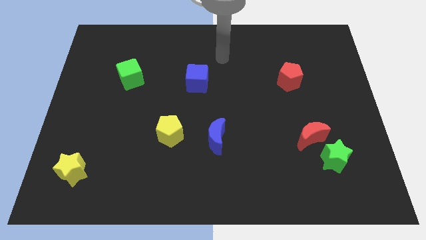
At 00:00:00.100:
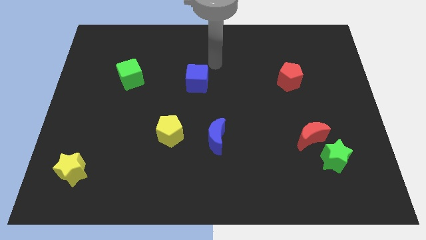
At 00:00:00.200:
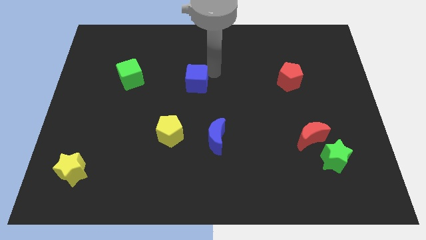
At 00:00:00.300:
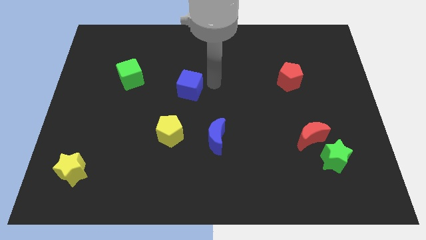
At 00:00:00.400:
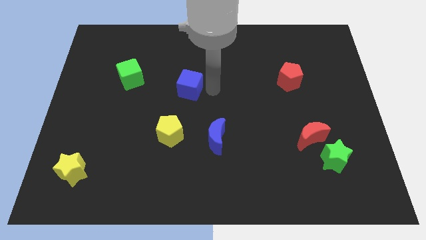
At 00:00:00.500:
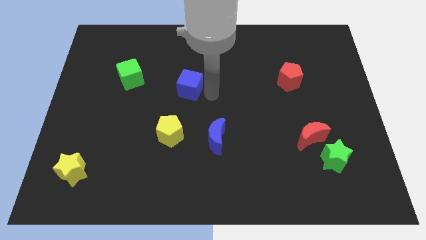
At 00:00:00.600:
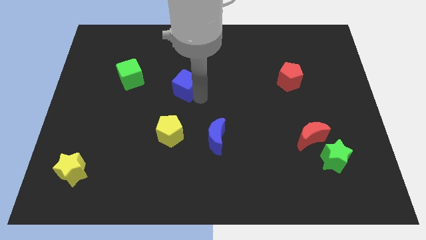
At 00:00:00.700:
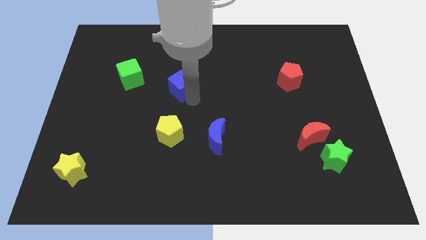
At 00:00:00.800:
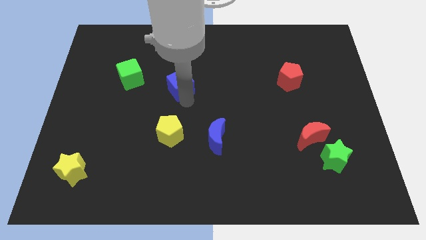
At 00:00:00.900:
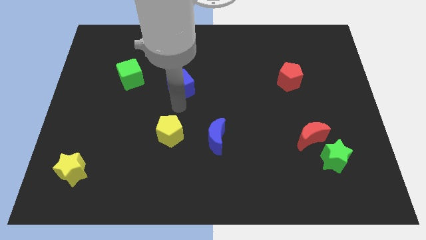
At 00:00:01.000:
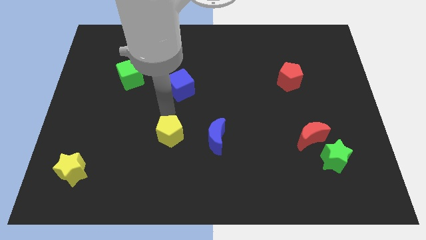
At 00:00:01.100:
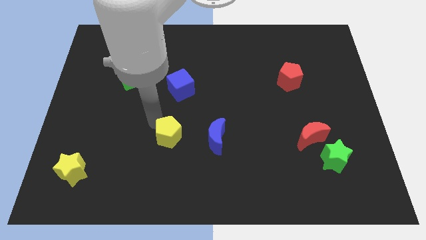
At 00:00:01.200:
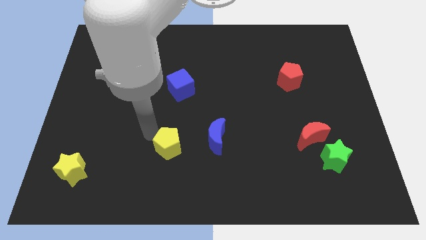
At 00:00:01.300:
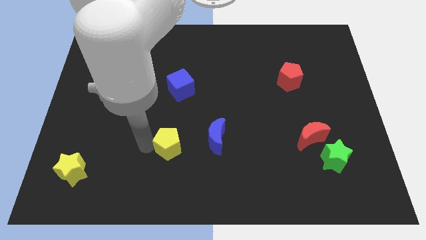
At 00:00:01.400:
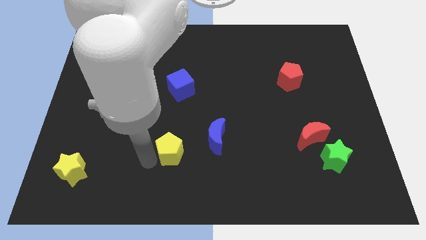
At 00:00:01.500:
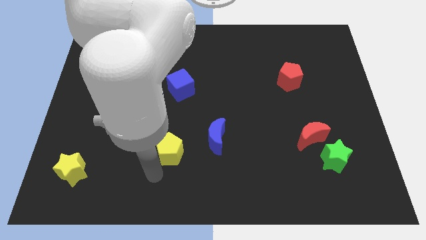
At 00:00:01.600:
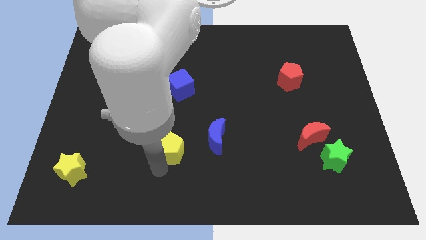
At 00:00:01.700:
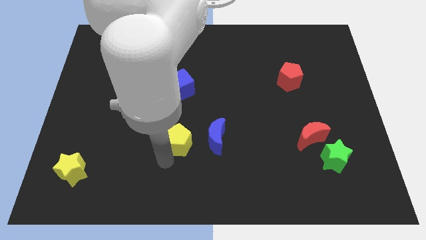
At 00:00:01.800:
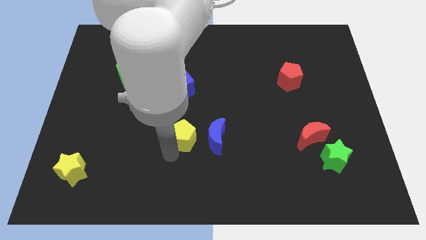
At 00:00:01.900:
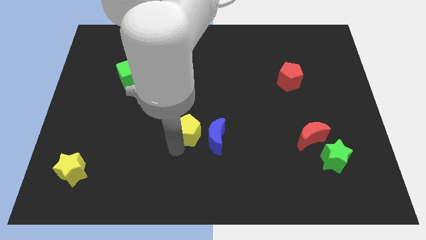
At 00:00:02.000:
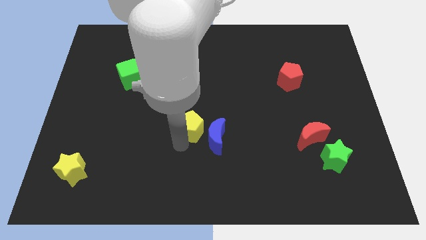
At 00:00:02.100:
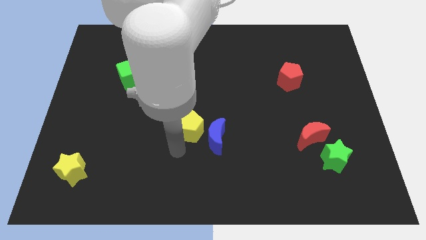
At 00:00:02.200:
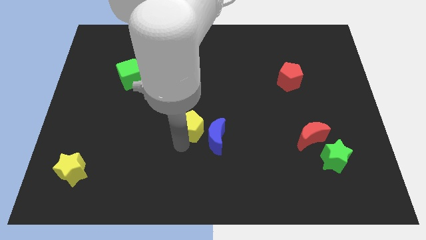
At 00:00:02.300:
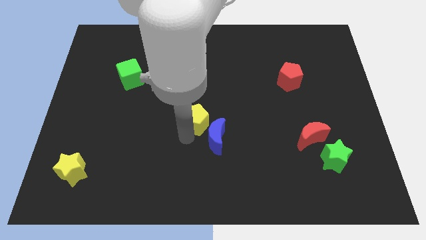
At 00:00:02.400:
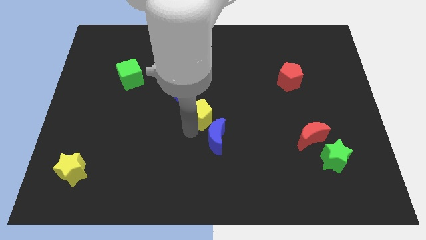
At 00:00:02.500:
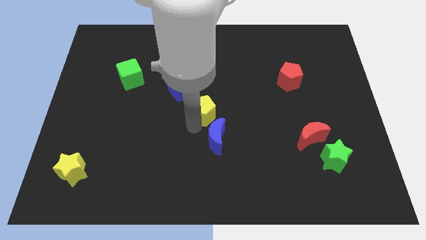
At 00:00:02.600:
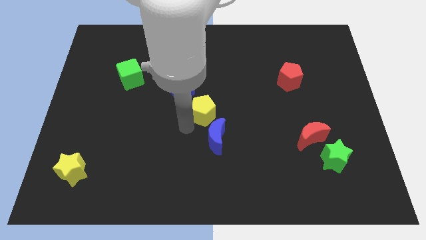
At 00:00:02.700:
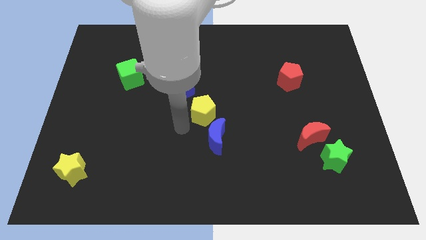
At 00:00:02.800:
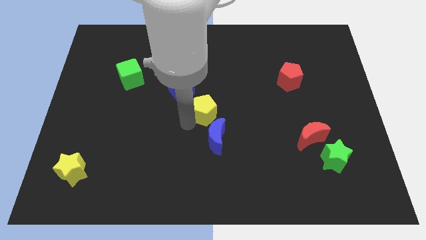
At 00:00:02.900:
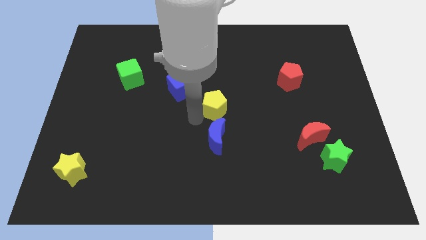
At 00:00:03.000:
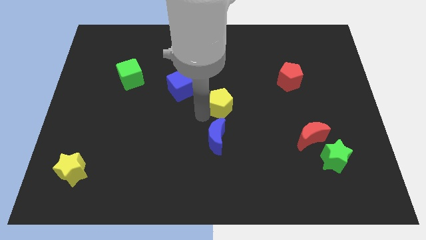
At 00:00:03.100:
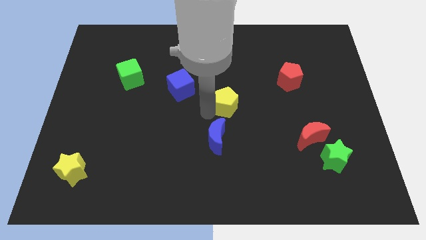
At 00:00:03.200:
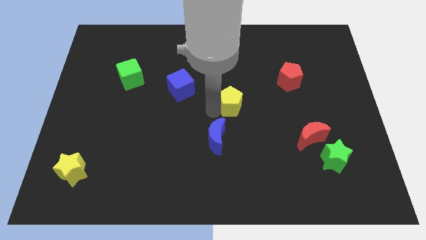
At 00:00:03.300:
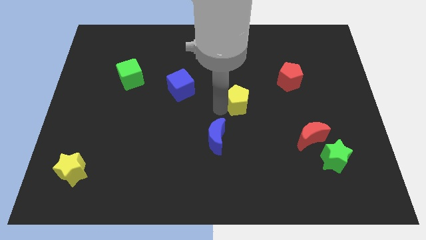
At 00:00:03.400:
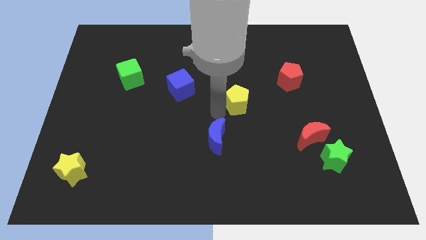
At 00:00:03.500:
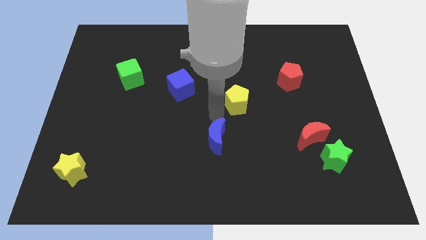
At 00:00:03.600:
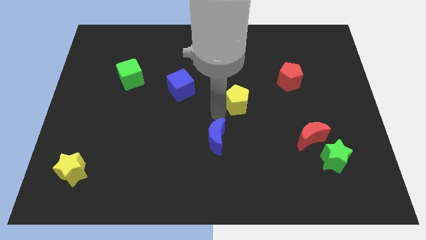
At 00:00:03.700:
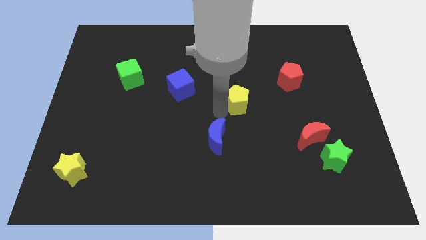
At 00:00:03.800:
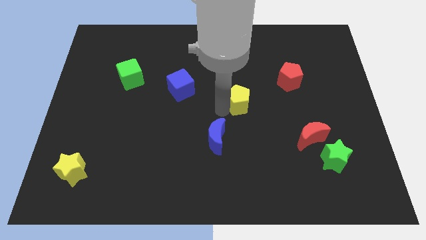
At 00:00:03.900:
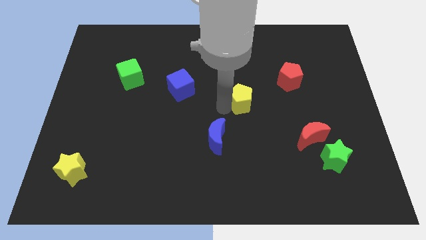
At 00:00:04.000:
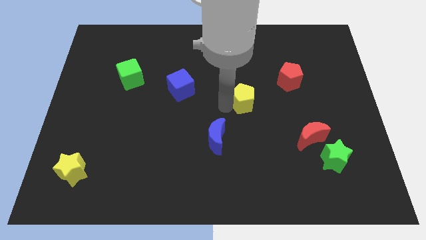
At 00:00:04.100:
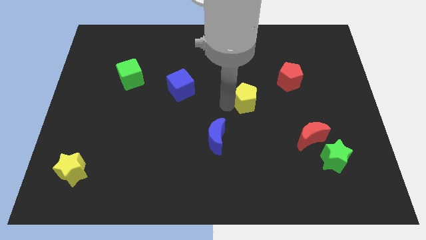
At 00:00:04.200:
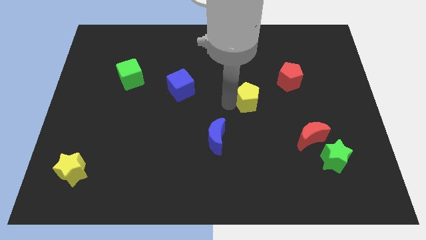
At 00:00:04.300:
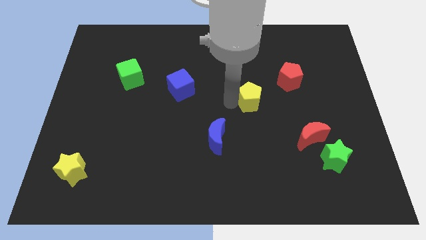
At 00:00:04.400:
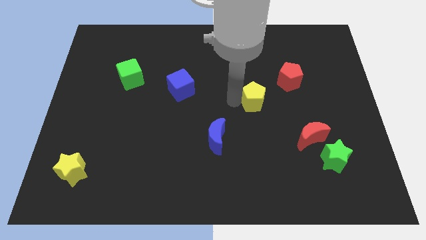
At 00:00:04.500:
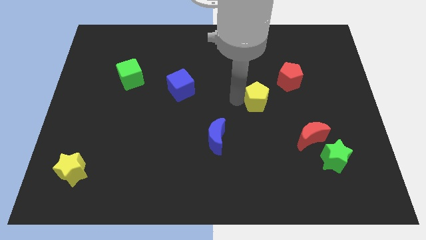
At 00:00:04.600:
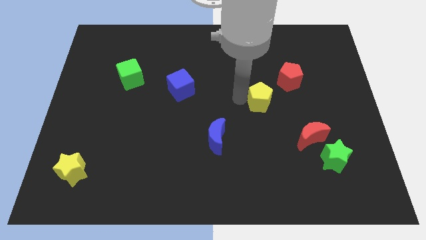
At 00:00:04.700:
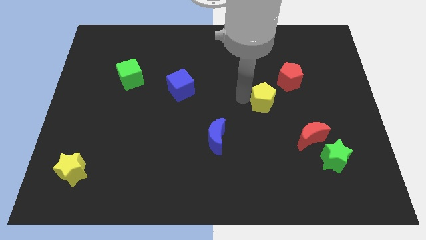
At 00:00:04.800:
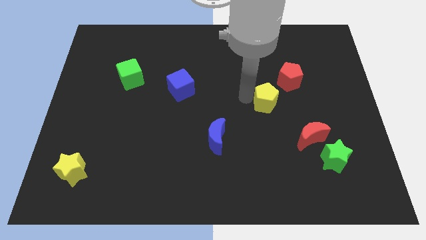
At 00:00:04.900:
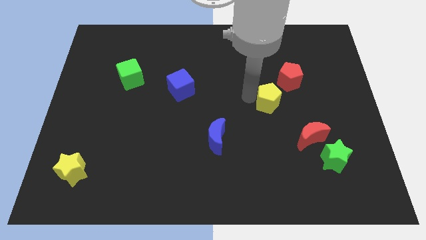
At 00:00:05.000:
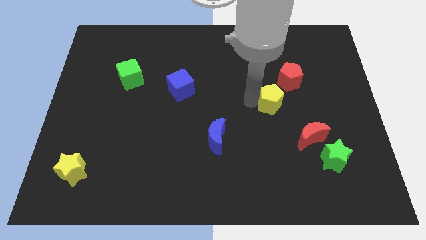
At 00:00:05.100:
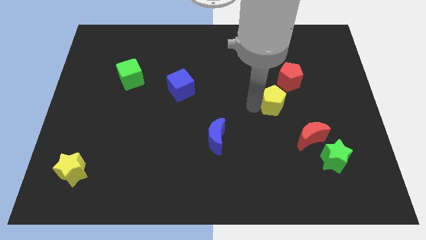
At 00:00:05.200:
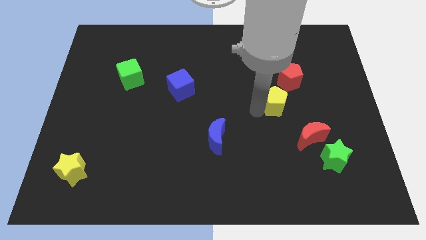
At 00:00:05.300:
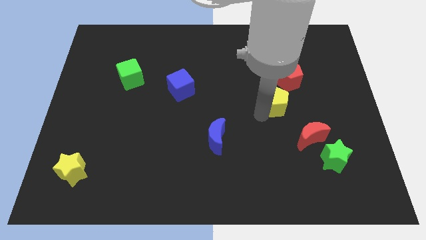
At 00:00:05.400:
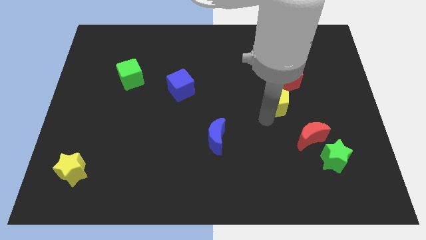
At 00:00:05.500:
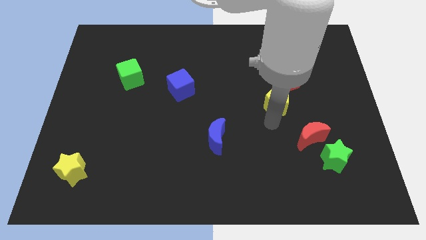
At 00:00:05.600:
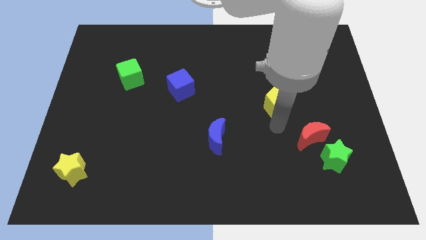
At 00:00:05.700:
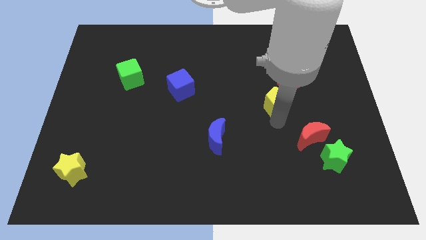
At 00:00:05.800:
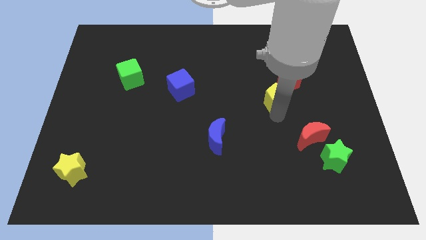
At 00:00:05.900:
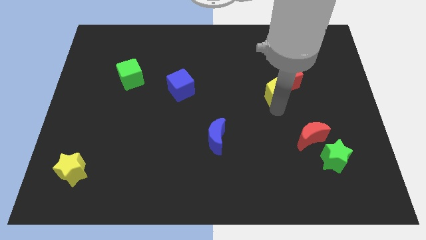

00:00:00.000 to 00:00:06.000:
move the yellow pentagon towards the red pentagon
